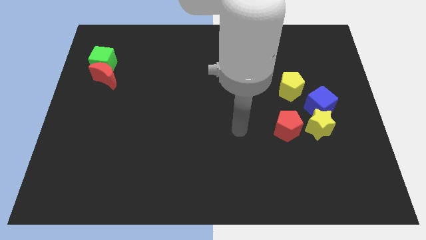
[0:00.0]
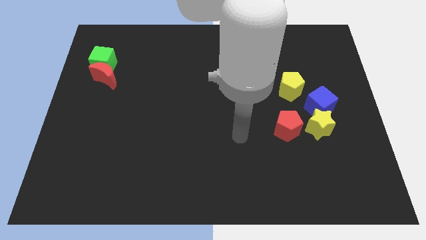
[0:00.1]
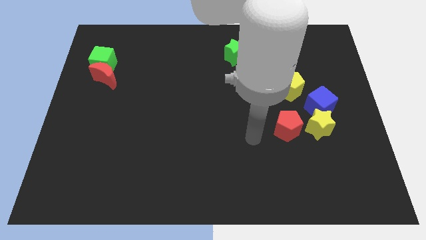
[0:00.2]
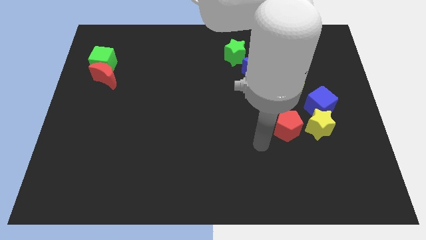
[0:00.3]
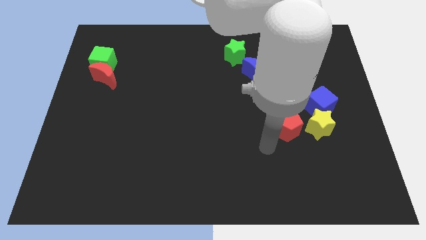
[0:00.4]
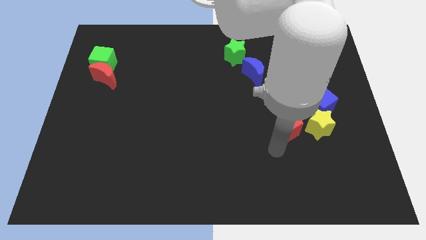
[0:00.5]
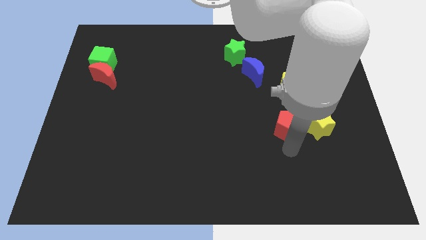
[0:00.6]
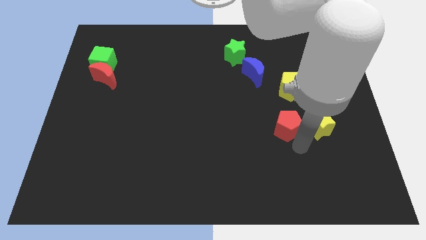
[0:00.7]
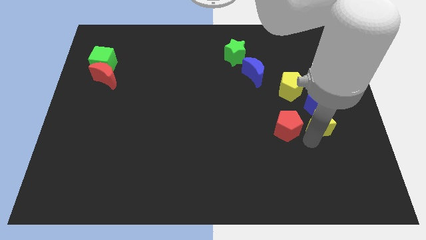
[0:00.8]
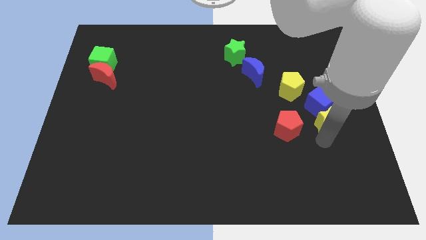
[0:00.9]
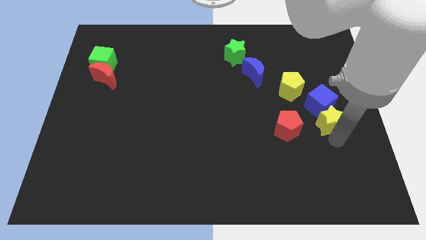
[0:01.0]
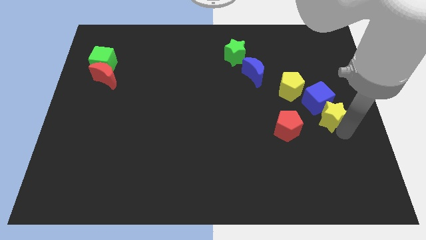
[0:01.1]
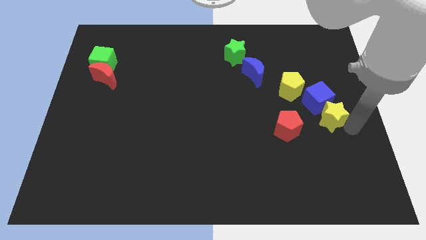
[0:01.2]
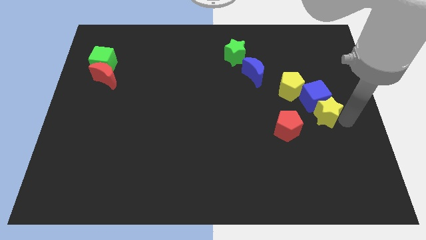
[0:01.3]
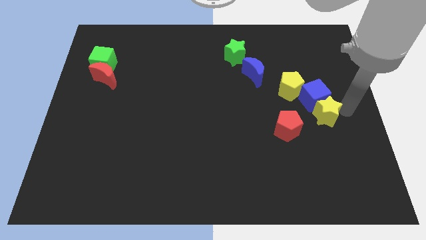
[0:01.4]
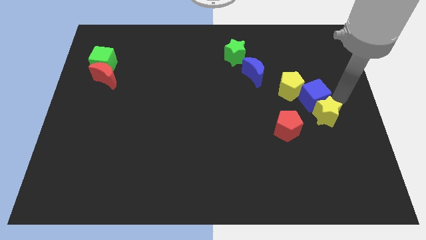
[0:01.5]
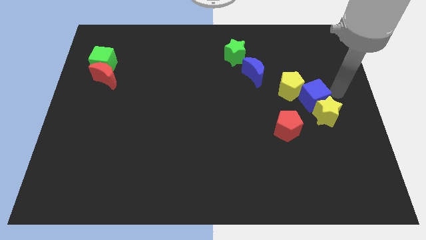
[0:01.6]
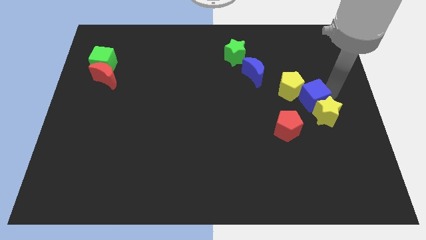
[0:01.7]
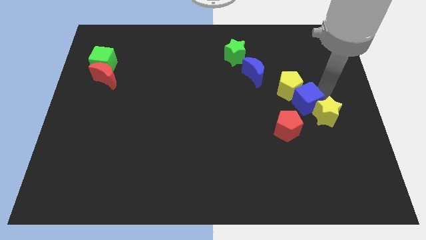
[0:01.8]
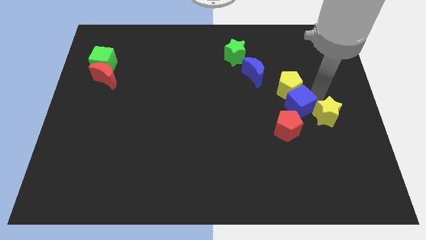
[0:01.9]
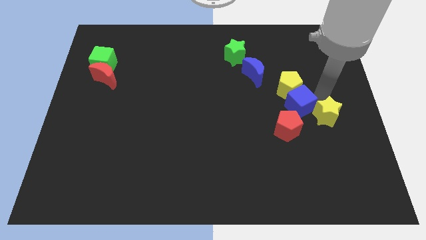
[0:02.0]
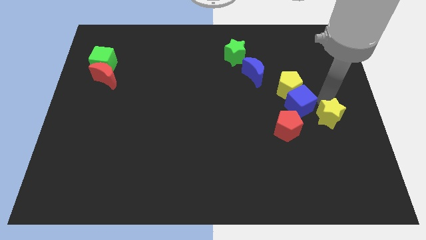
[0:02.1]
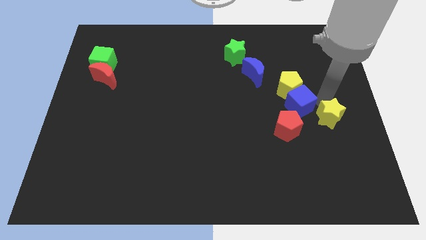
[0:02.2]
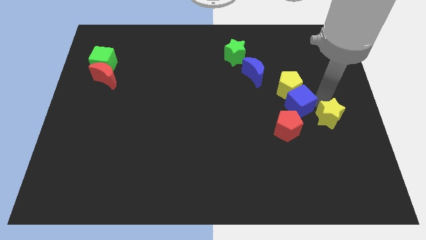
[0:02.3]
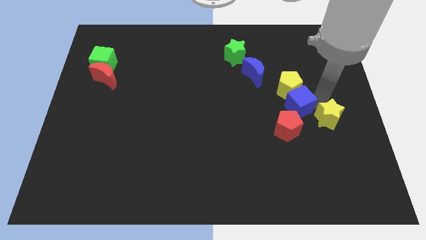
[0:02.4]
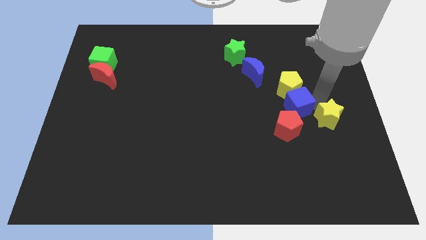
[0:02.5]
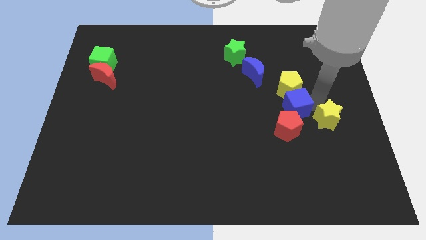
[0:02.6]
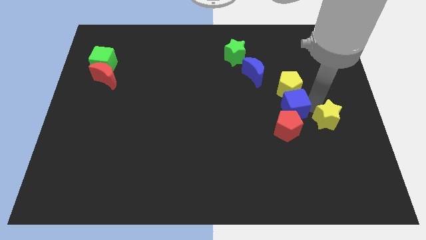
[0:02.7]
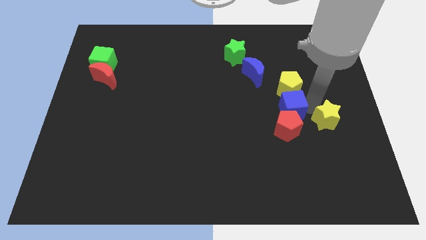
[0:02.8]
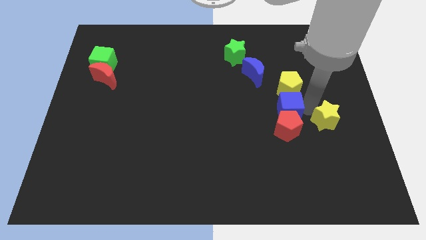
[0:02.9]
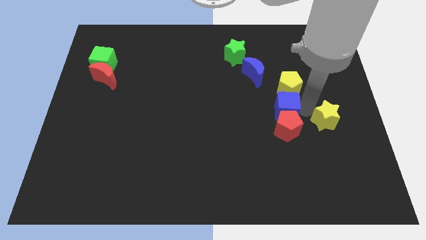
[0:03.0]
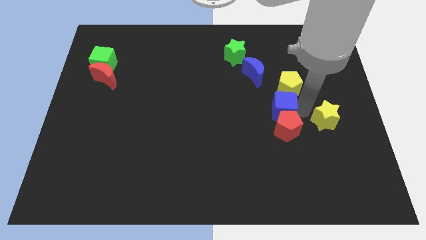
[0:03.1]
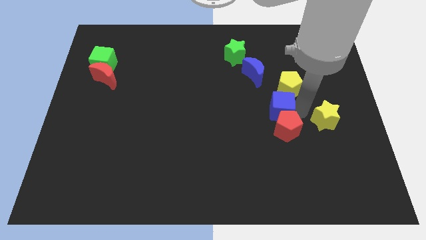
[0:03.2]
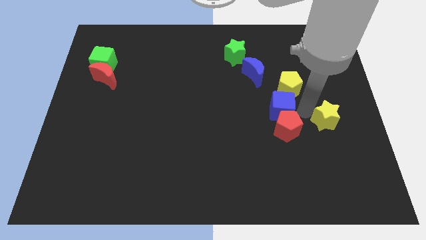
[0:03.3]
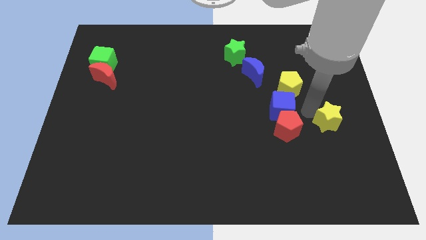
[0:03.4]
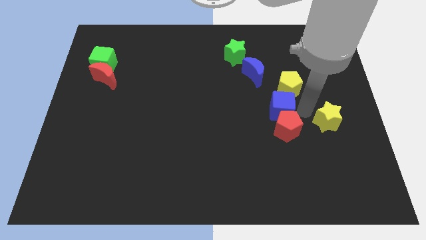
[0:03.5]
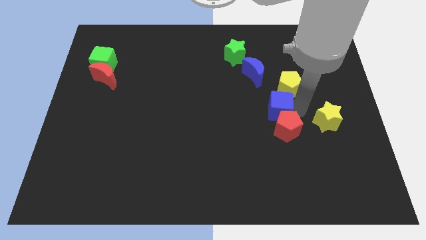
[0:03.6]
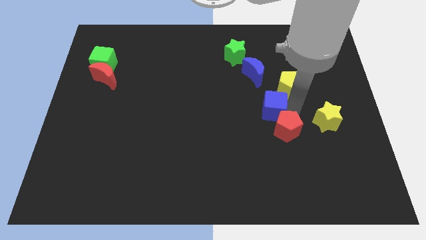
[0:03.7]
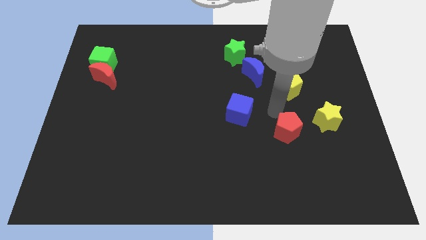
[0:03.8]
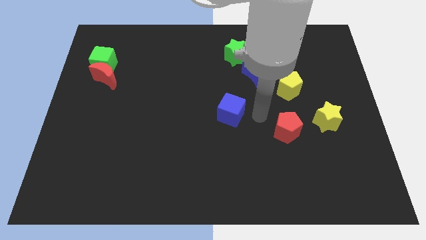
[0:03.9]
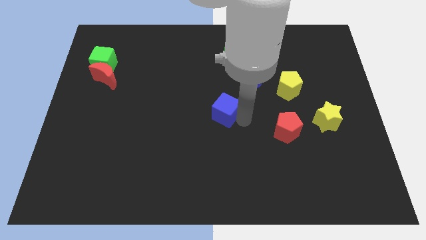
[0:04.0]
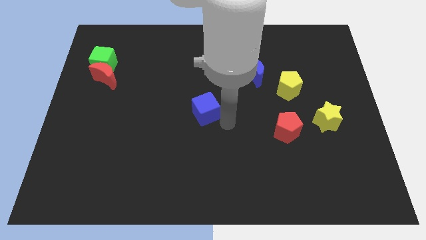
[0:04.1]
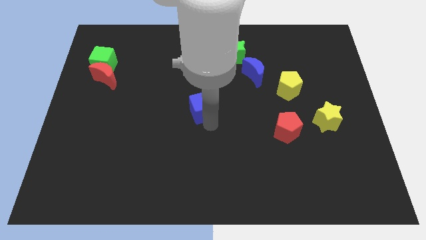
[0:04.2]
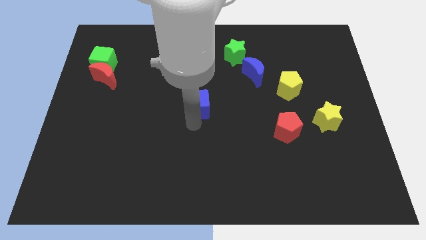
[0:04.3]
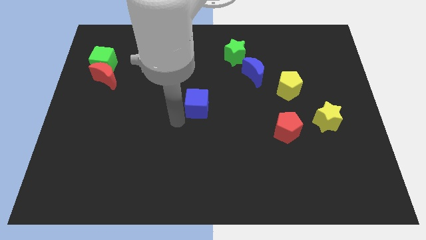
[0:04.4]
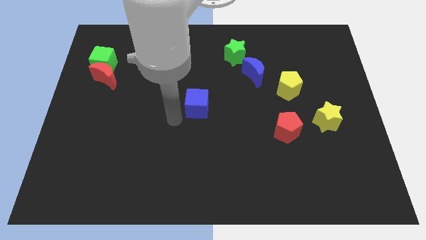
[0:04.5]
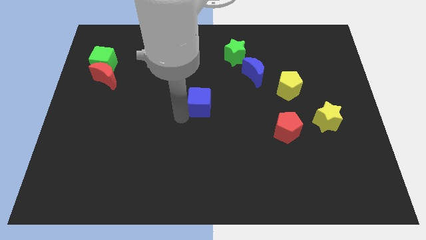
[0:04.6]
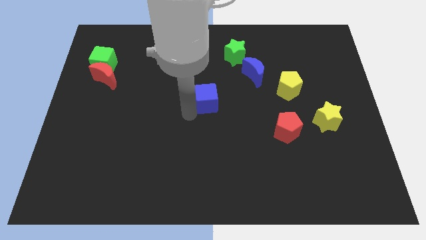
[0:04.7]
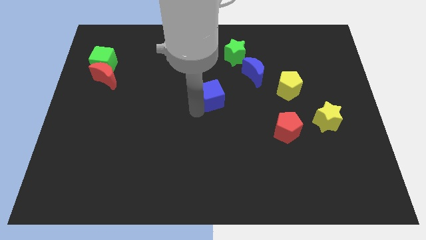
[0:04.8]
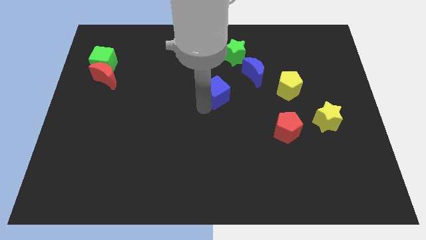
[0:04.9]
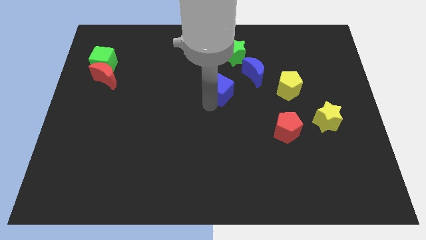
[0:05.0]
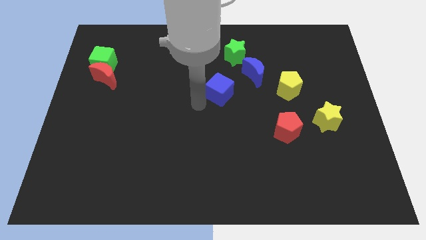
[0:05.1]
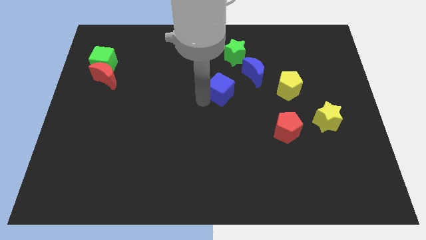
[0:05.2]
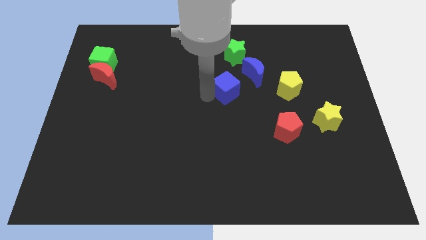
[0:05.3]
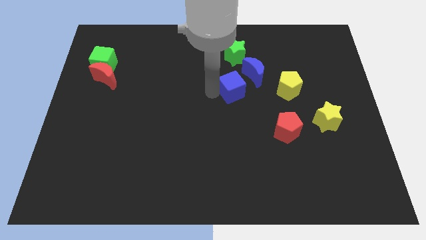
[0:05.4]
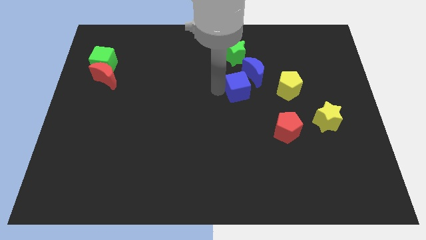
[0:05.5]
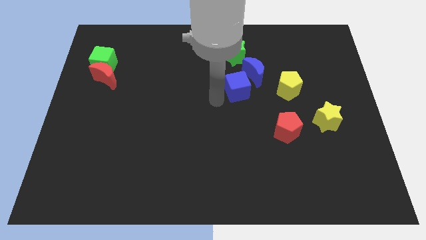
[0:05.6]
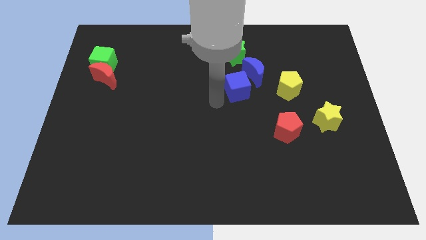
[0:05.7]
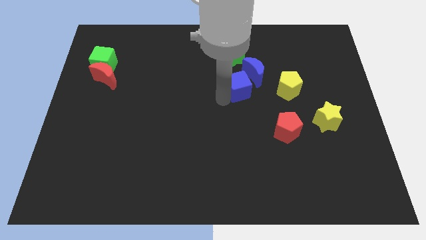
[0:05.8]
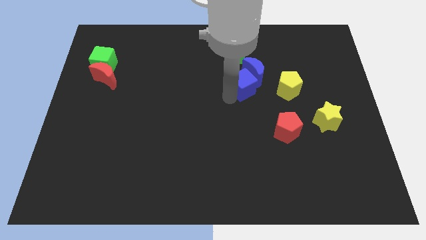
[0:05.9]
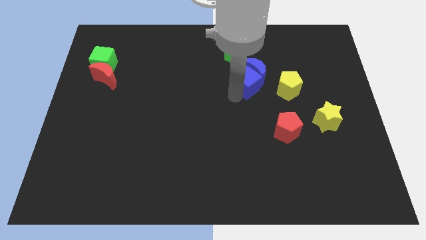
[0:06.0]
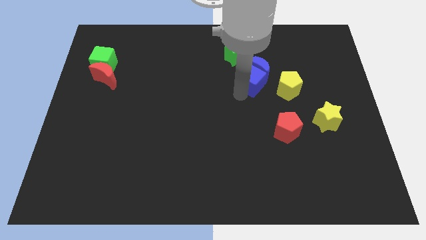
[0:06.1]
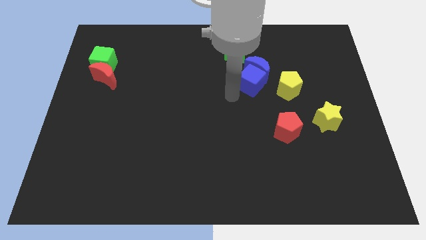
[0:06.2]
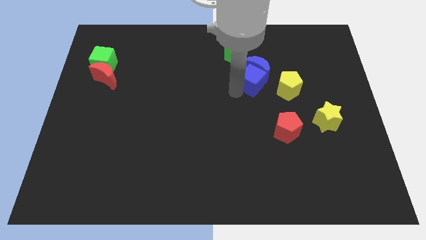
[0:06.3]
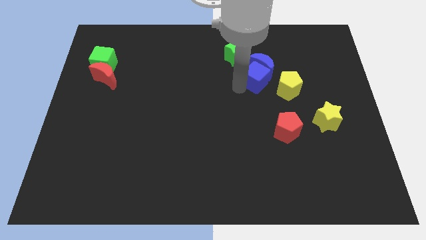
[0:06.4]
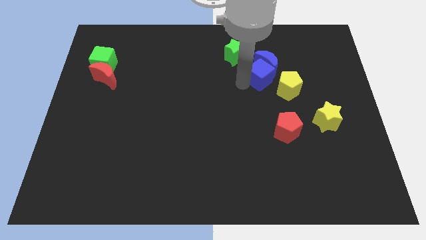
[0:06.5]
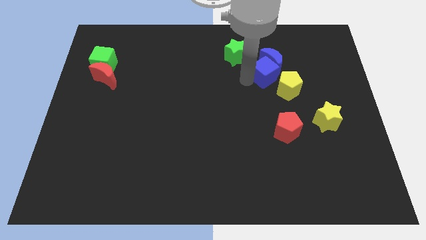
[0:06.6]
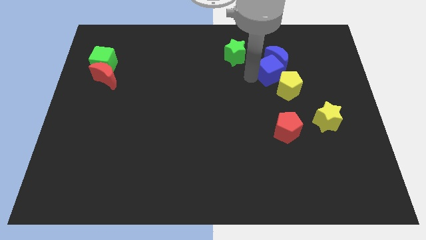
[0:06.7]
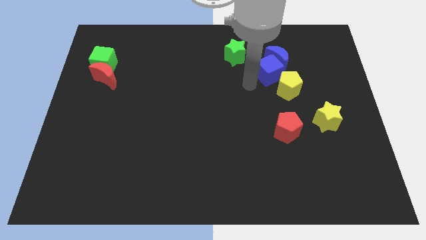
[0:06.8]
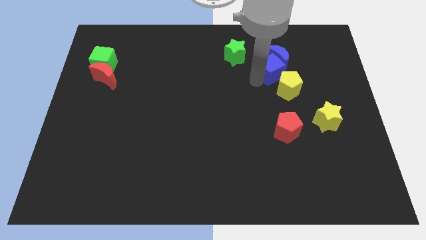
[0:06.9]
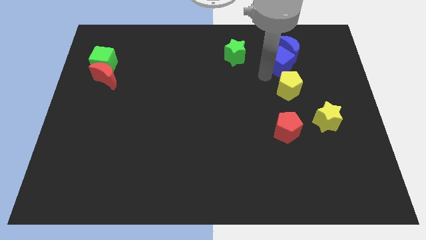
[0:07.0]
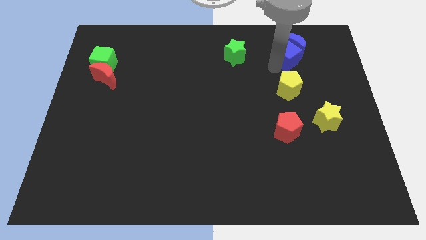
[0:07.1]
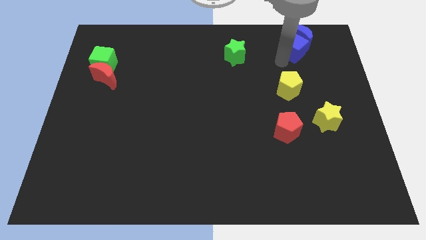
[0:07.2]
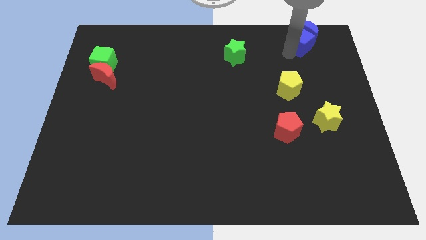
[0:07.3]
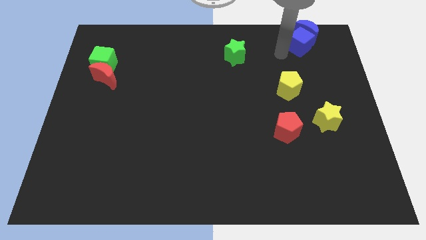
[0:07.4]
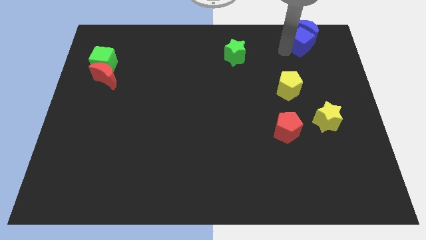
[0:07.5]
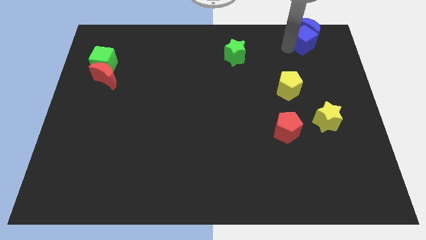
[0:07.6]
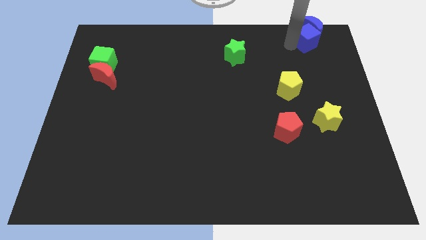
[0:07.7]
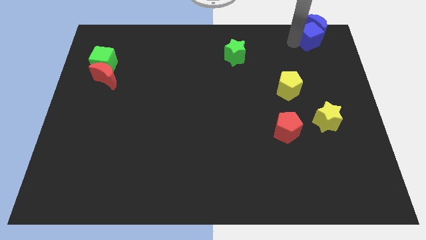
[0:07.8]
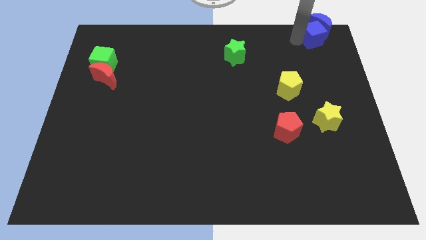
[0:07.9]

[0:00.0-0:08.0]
slide the blue cube to the upper right corner
